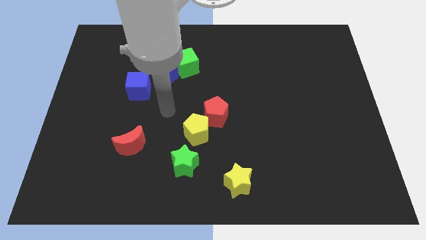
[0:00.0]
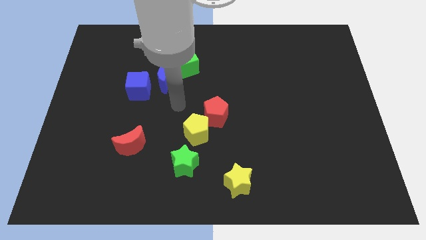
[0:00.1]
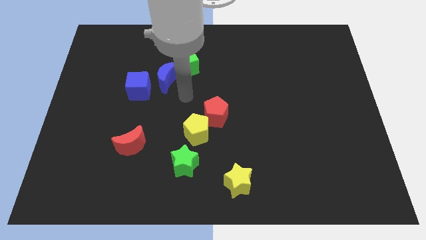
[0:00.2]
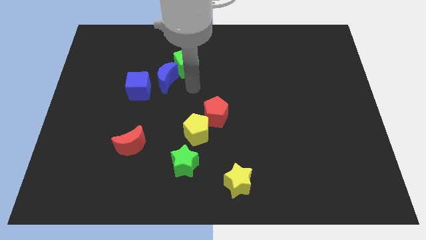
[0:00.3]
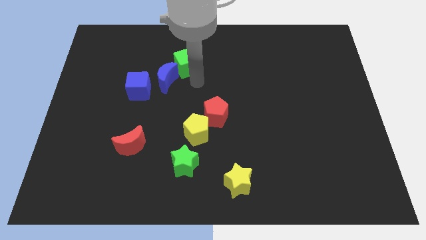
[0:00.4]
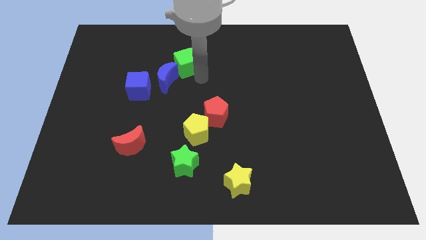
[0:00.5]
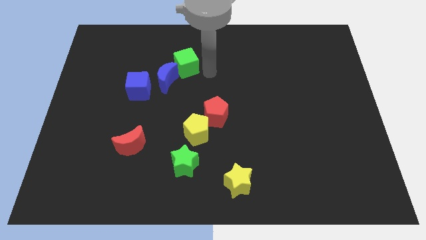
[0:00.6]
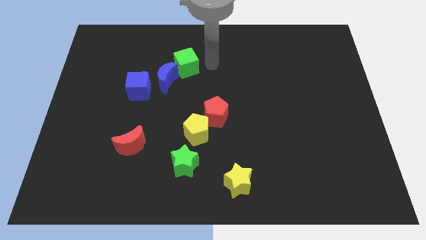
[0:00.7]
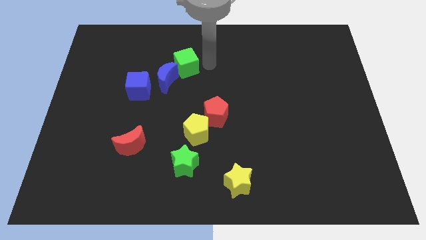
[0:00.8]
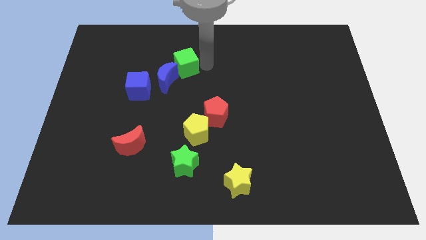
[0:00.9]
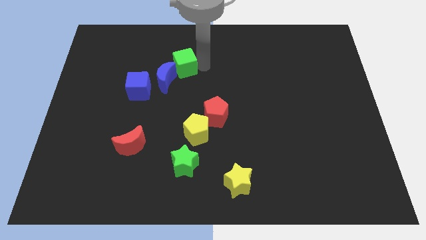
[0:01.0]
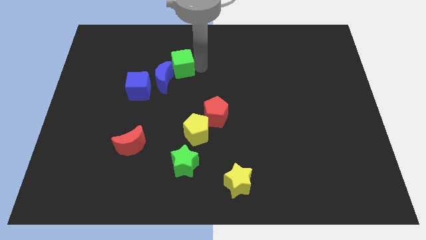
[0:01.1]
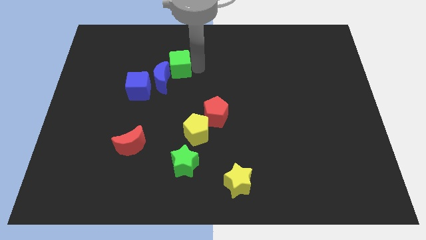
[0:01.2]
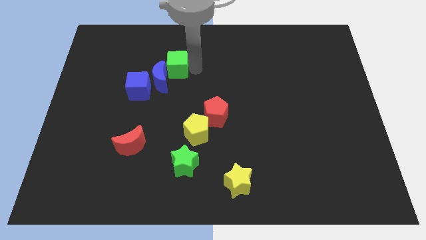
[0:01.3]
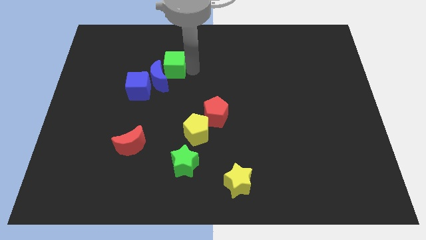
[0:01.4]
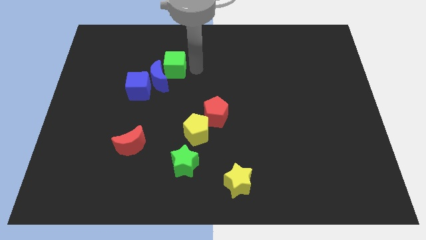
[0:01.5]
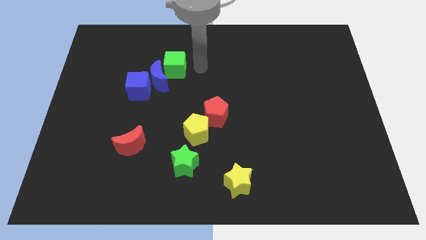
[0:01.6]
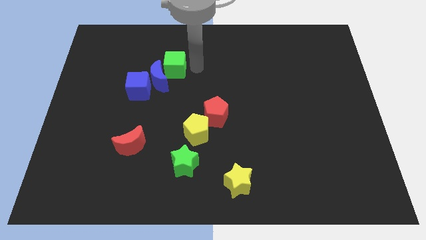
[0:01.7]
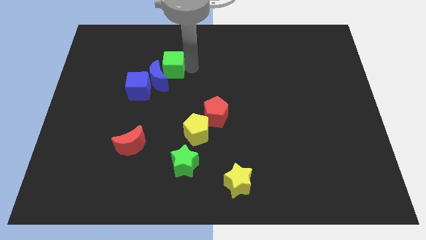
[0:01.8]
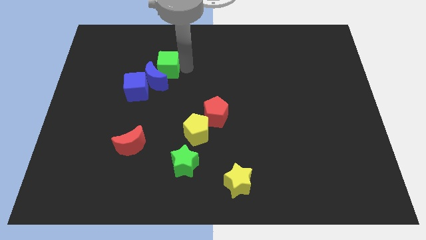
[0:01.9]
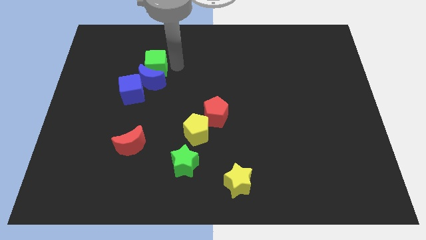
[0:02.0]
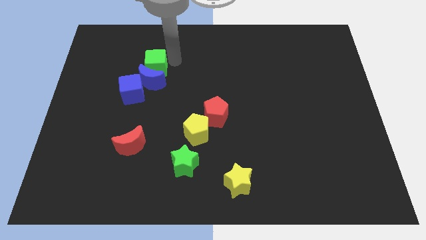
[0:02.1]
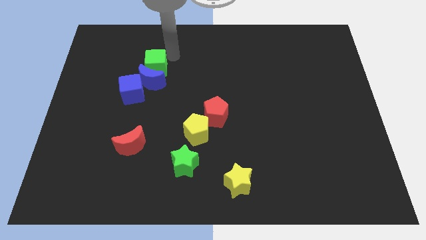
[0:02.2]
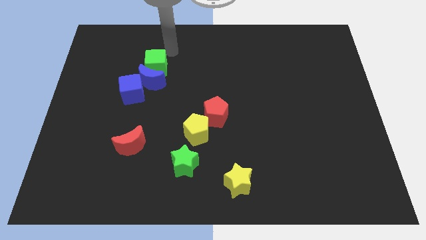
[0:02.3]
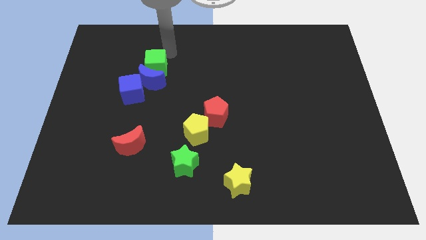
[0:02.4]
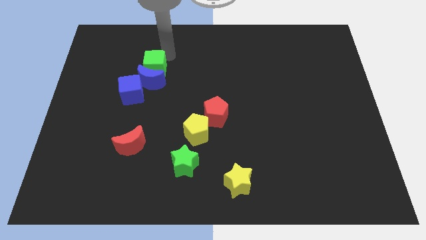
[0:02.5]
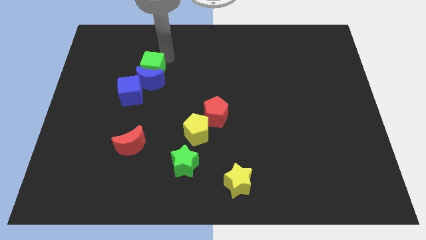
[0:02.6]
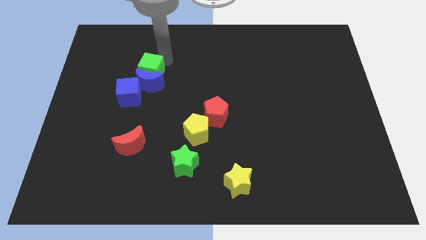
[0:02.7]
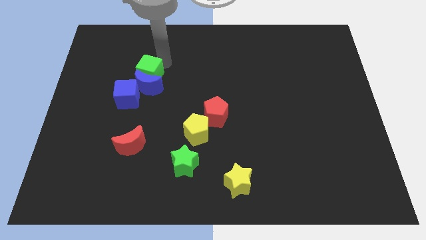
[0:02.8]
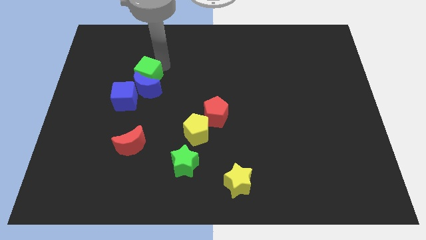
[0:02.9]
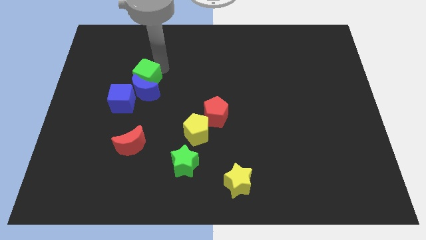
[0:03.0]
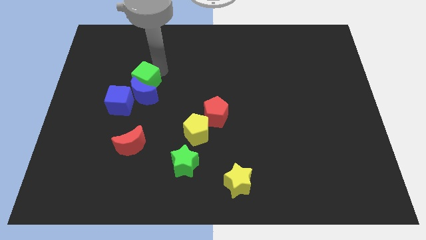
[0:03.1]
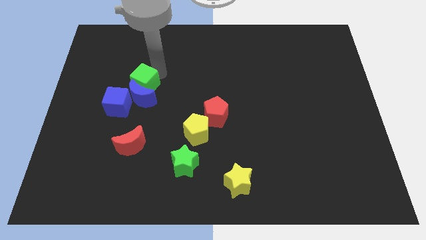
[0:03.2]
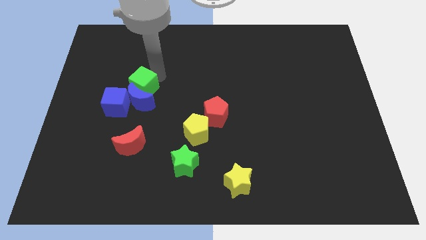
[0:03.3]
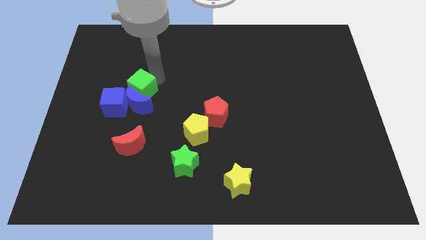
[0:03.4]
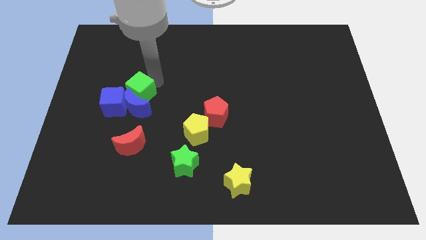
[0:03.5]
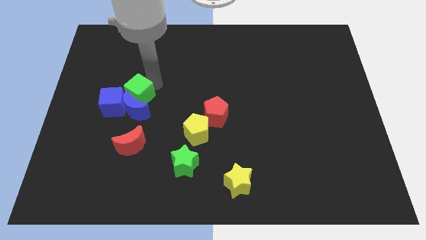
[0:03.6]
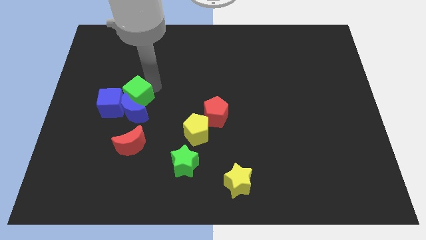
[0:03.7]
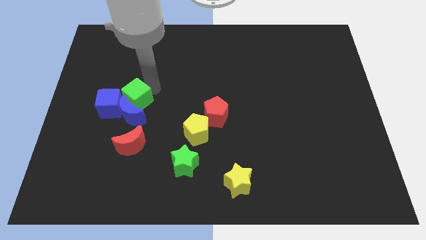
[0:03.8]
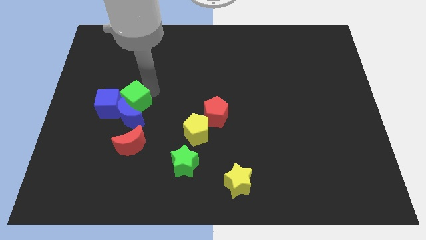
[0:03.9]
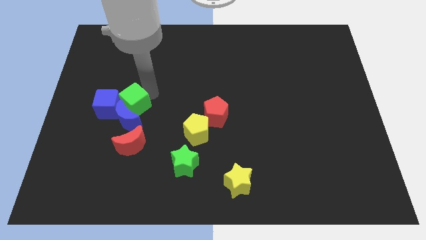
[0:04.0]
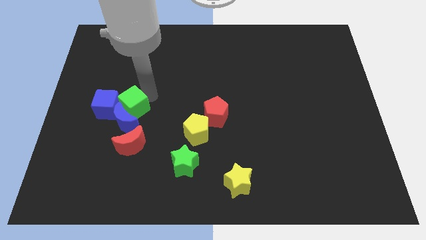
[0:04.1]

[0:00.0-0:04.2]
put the green cube to the blue cube

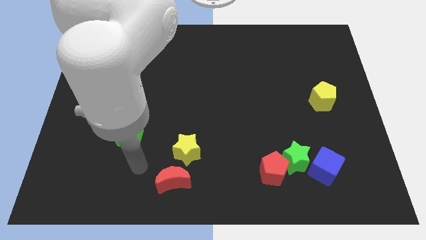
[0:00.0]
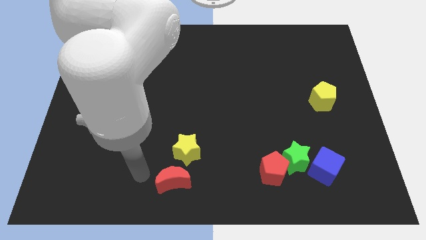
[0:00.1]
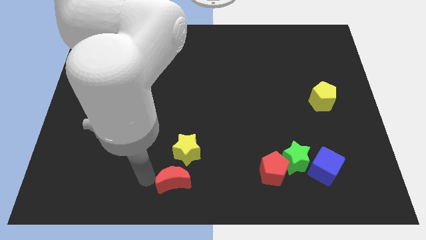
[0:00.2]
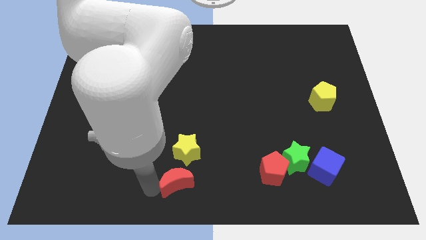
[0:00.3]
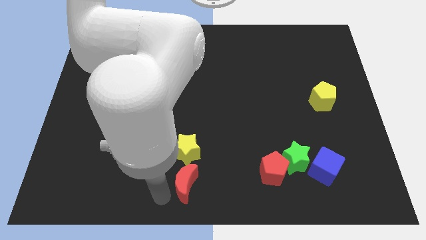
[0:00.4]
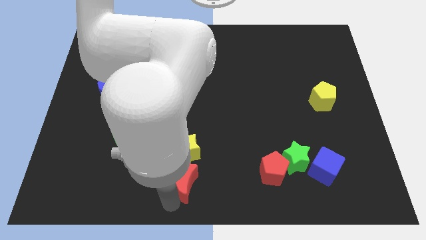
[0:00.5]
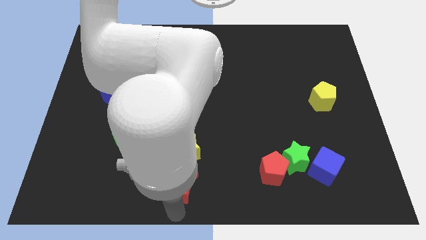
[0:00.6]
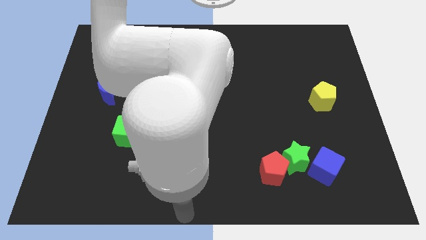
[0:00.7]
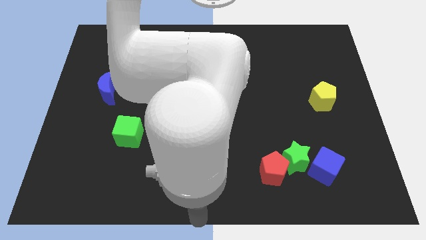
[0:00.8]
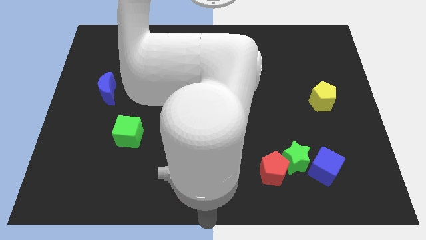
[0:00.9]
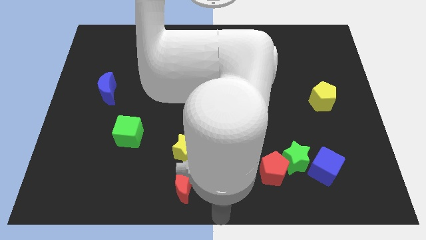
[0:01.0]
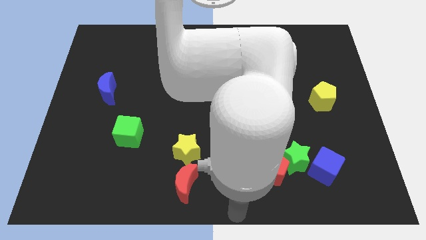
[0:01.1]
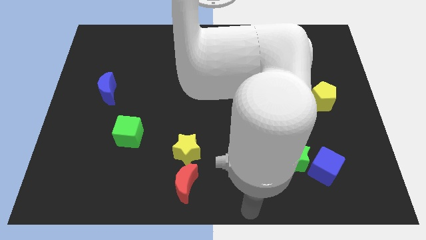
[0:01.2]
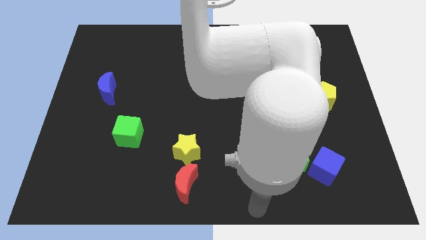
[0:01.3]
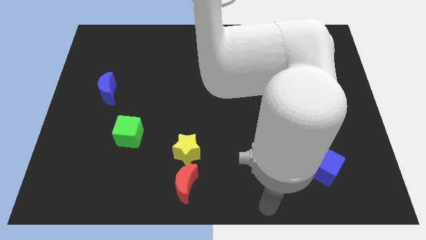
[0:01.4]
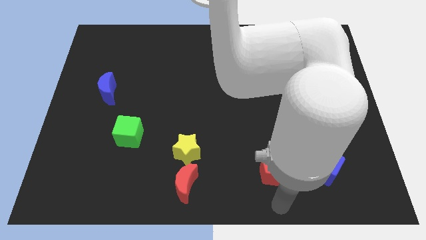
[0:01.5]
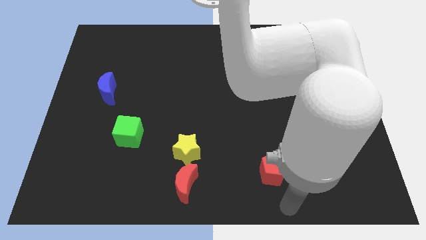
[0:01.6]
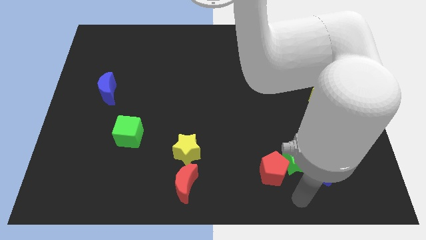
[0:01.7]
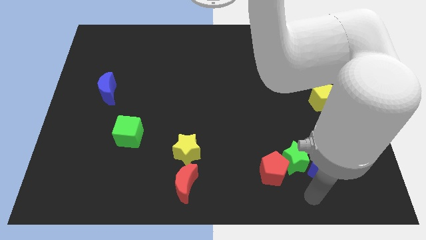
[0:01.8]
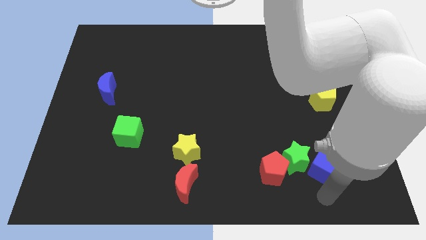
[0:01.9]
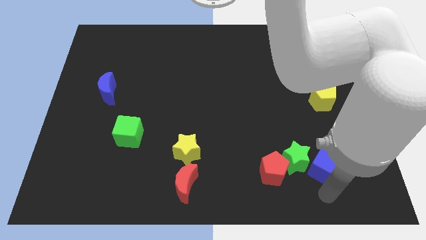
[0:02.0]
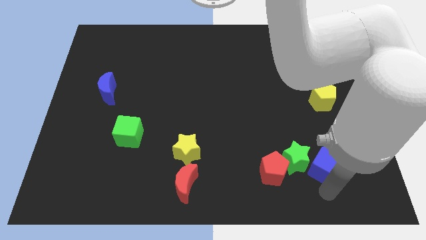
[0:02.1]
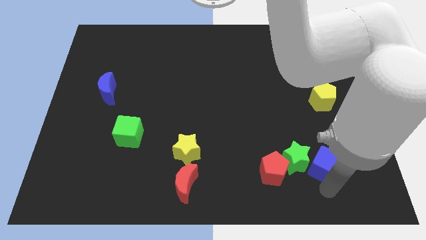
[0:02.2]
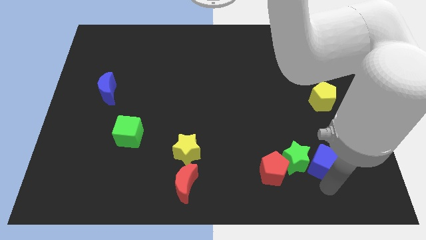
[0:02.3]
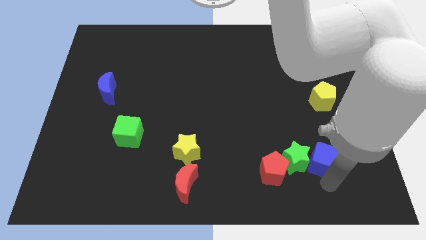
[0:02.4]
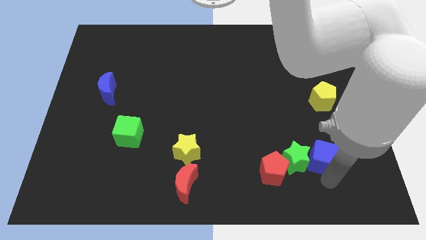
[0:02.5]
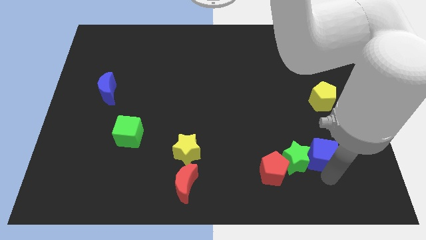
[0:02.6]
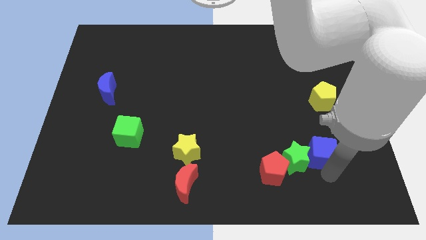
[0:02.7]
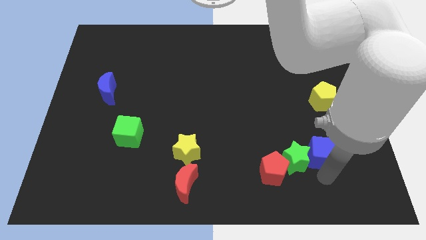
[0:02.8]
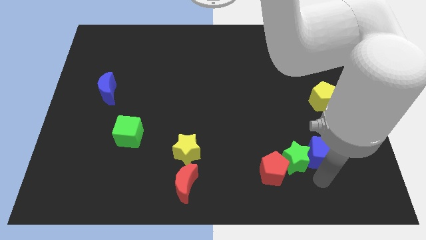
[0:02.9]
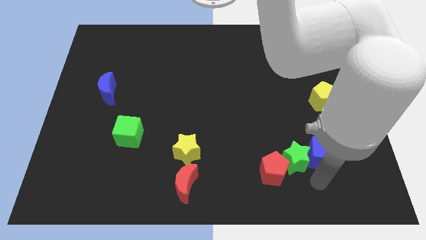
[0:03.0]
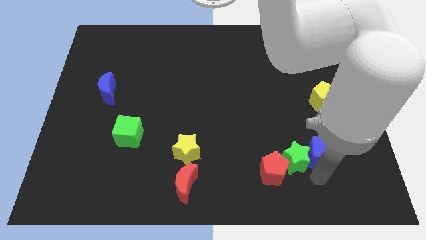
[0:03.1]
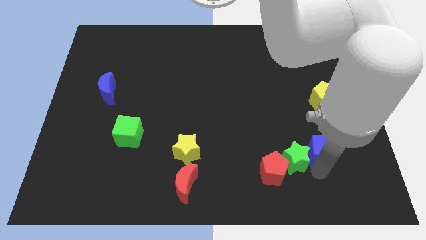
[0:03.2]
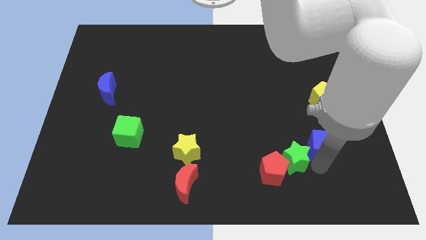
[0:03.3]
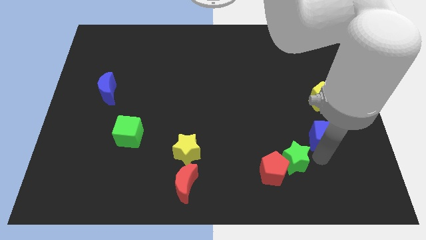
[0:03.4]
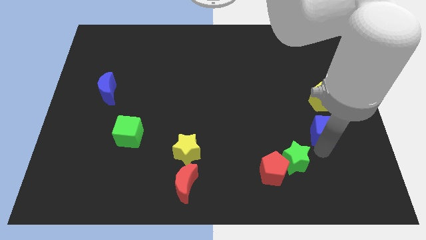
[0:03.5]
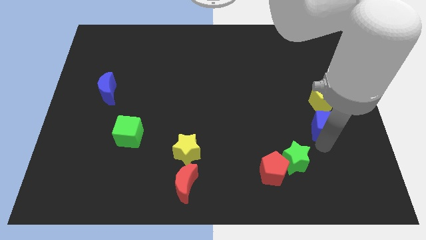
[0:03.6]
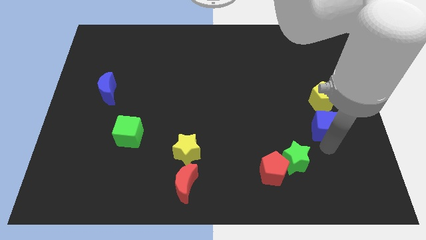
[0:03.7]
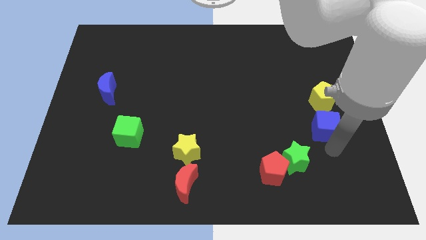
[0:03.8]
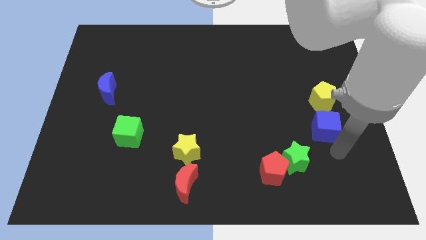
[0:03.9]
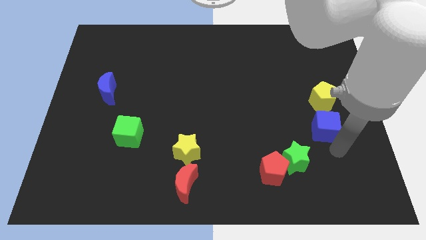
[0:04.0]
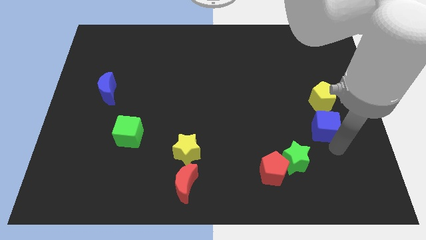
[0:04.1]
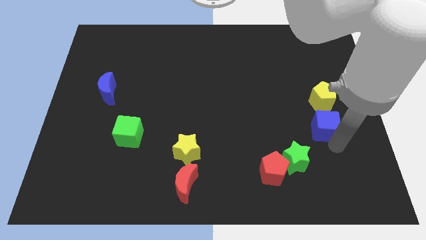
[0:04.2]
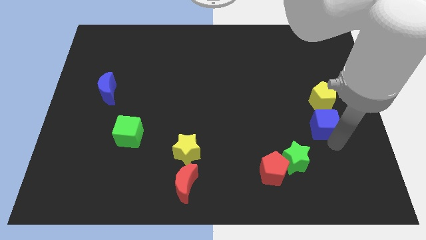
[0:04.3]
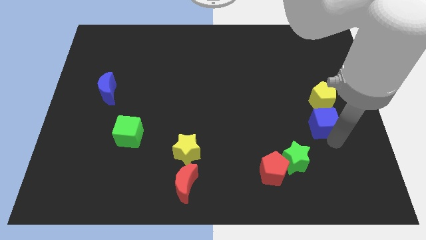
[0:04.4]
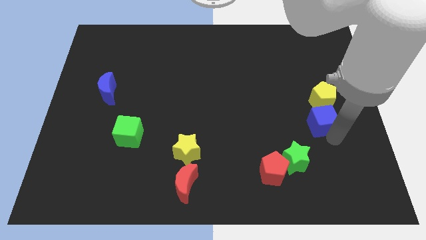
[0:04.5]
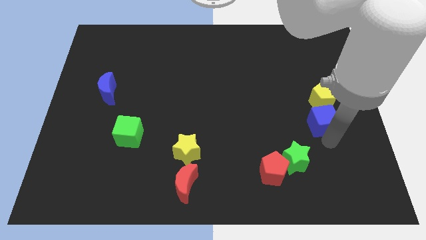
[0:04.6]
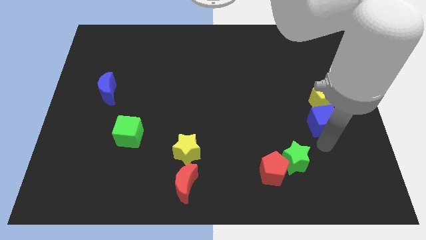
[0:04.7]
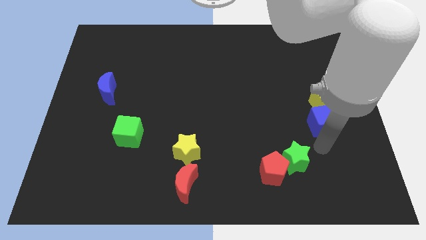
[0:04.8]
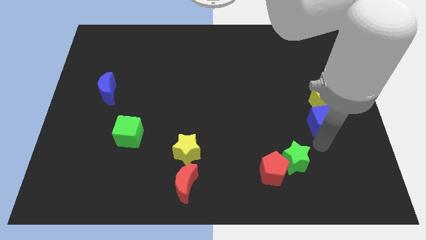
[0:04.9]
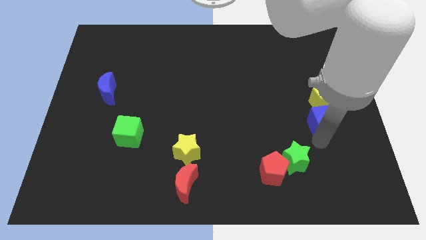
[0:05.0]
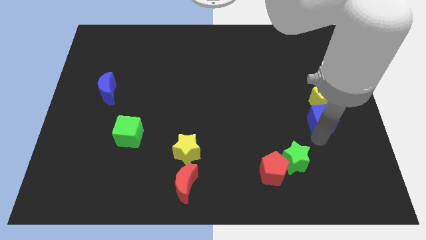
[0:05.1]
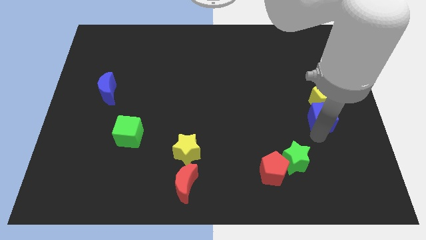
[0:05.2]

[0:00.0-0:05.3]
put the blue cube next to the yellow pentagon
